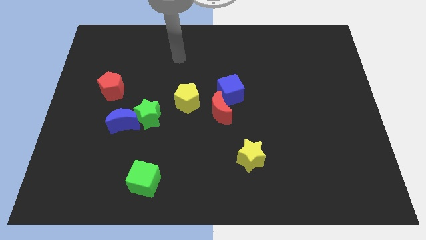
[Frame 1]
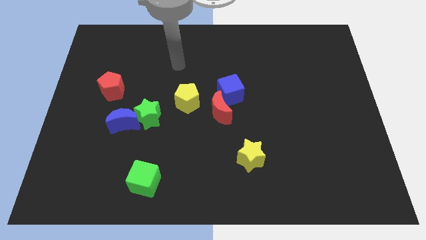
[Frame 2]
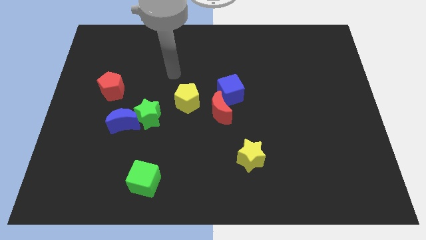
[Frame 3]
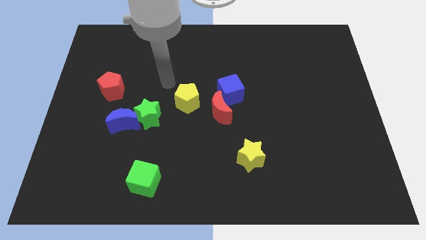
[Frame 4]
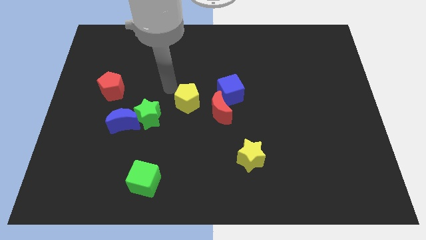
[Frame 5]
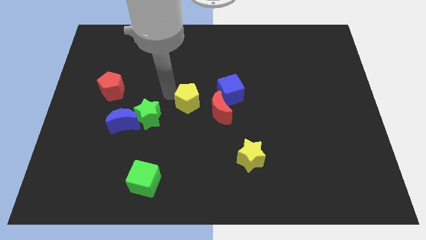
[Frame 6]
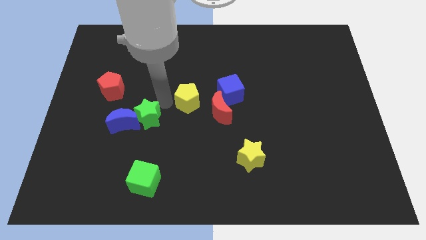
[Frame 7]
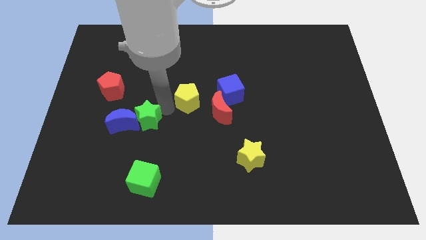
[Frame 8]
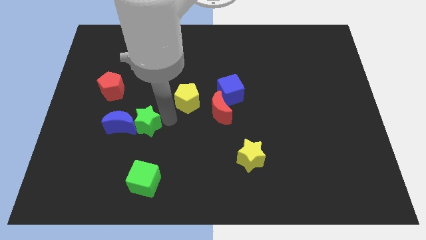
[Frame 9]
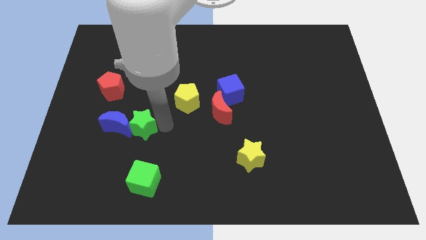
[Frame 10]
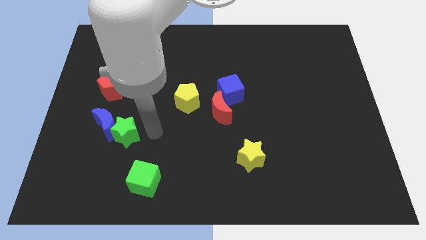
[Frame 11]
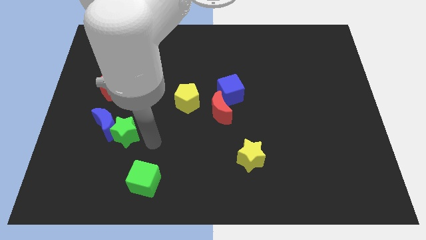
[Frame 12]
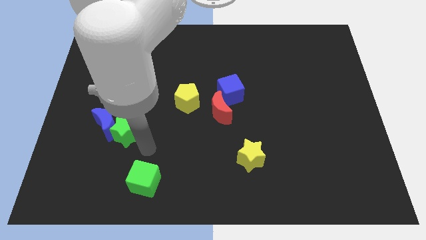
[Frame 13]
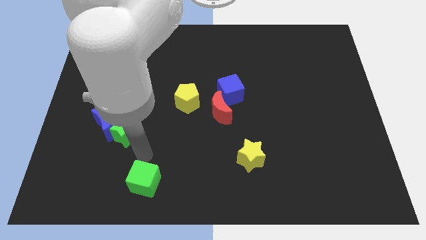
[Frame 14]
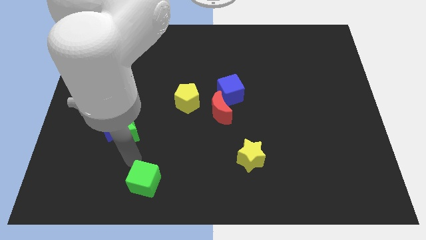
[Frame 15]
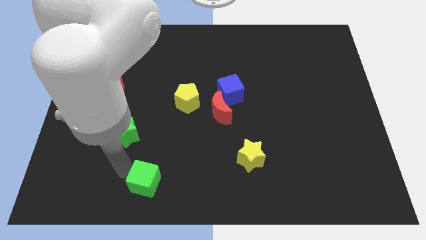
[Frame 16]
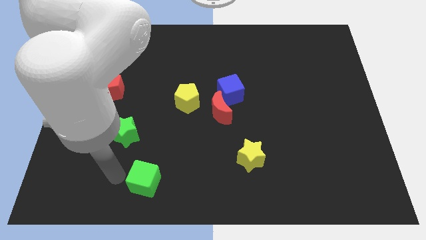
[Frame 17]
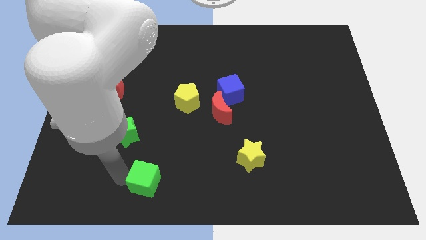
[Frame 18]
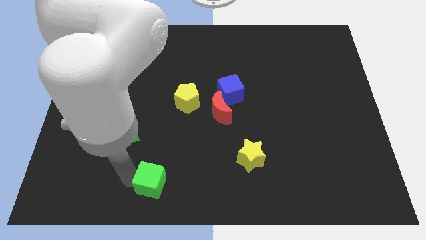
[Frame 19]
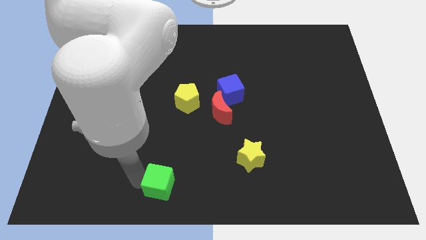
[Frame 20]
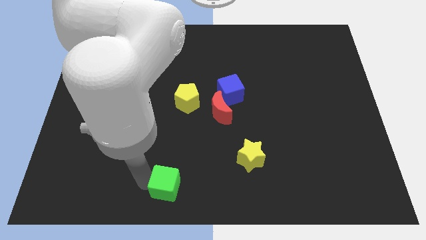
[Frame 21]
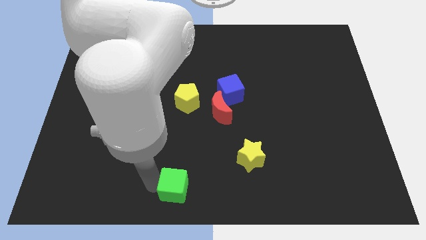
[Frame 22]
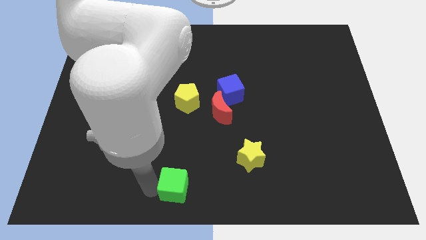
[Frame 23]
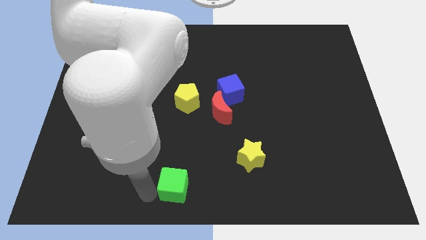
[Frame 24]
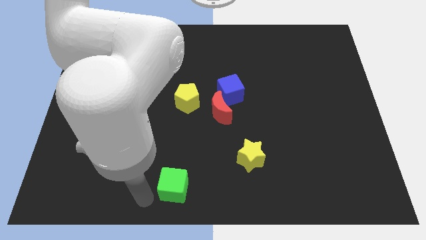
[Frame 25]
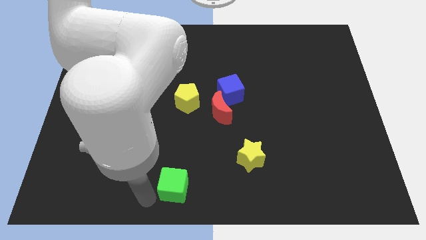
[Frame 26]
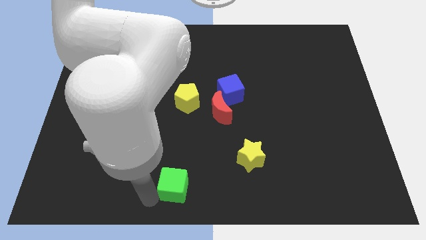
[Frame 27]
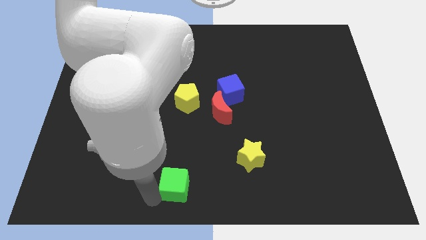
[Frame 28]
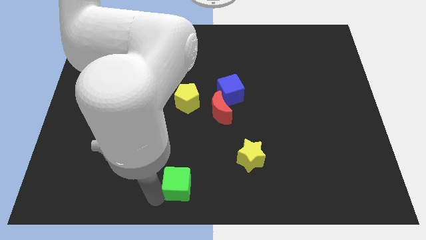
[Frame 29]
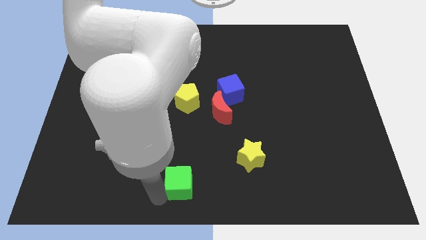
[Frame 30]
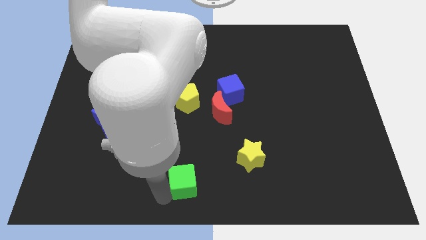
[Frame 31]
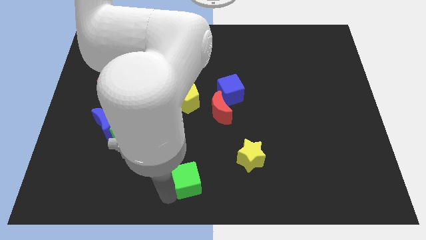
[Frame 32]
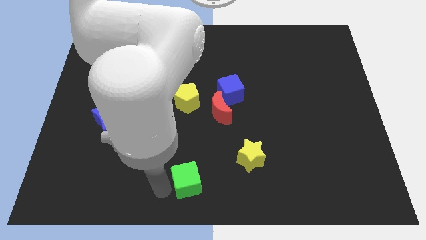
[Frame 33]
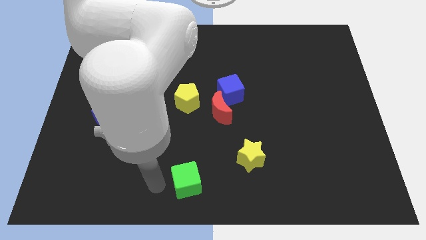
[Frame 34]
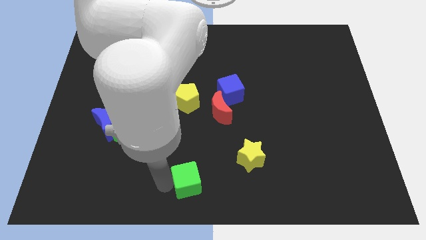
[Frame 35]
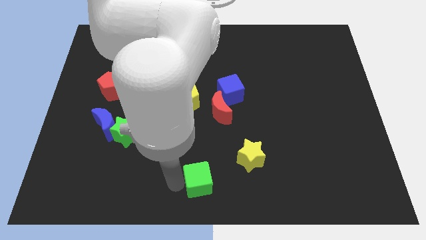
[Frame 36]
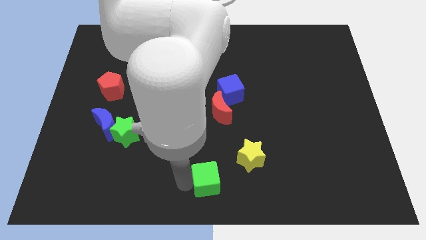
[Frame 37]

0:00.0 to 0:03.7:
move the green cube diagonally down and to the left of the yellow star

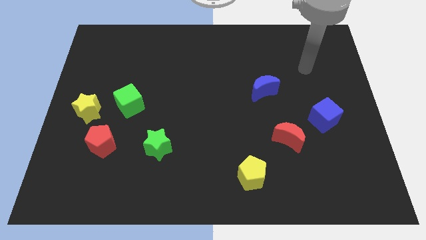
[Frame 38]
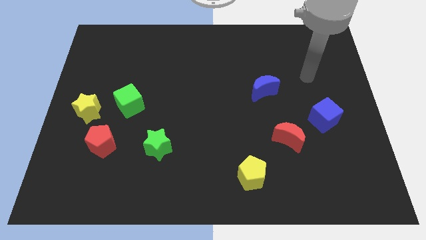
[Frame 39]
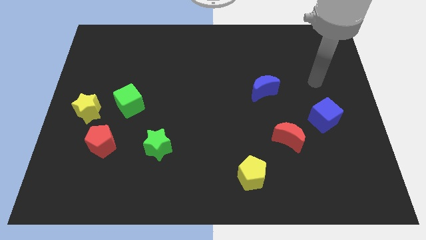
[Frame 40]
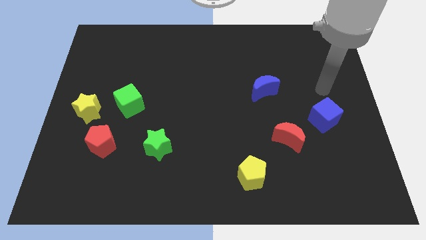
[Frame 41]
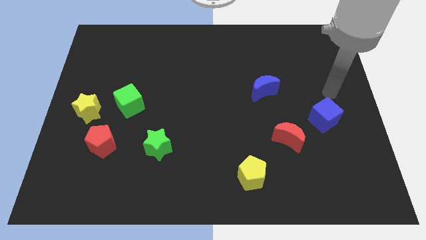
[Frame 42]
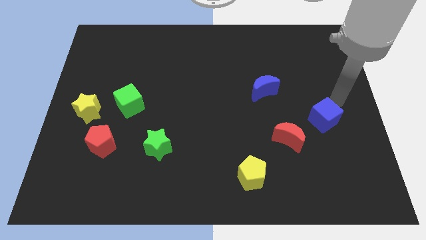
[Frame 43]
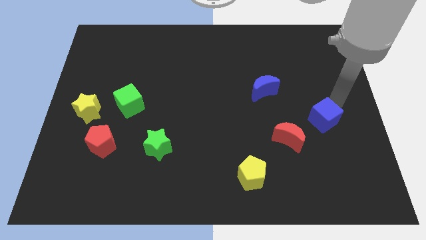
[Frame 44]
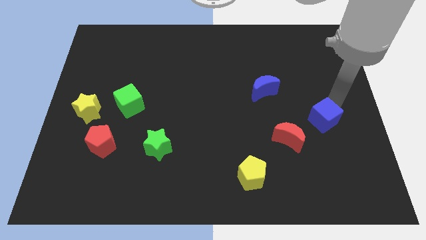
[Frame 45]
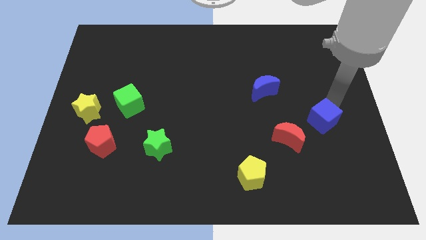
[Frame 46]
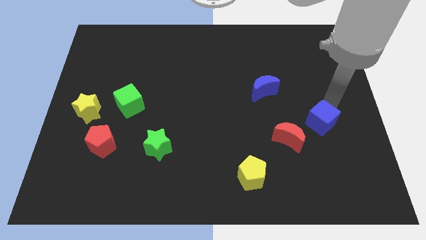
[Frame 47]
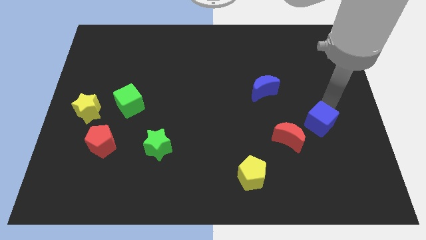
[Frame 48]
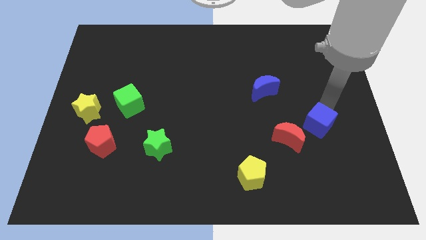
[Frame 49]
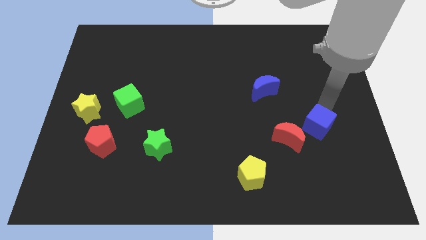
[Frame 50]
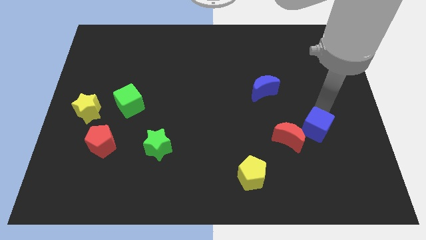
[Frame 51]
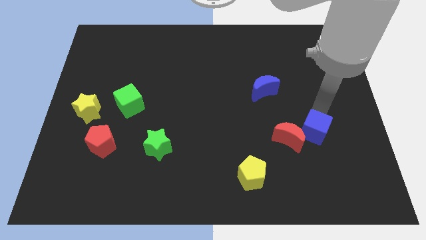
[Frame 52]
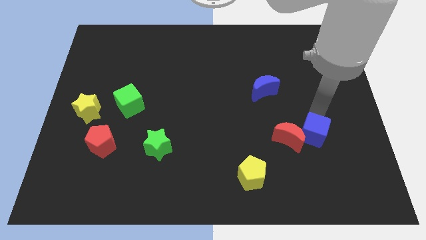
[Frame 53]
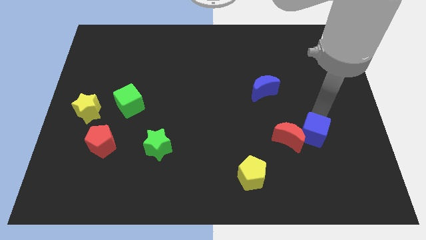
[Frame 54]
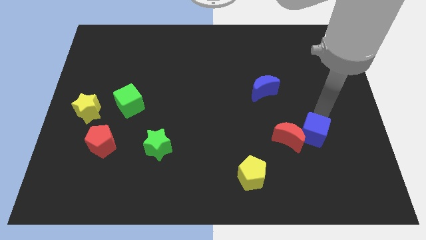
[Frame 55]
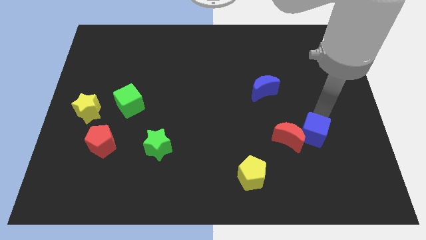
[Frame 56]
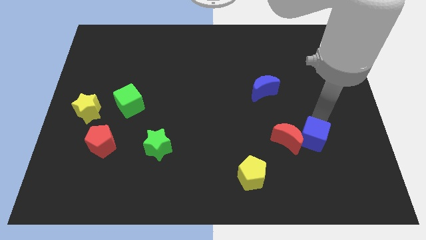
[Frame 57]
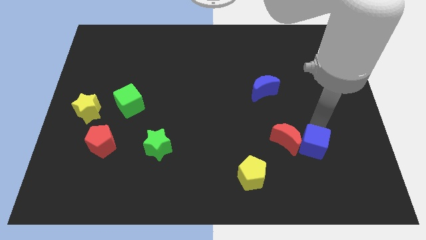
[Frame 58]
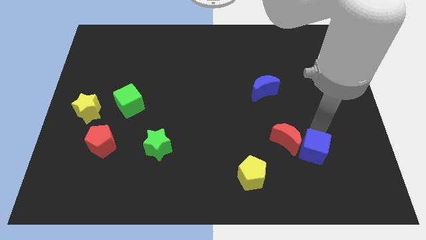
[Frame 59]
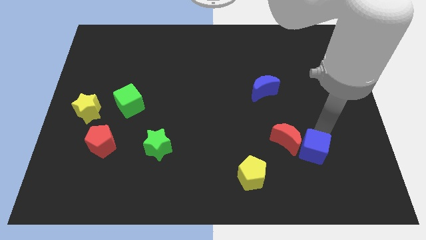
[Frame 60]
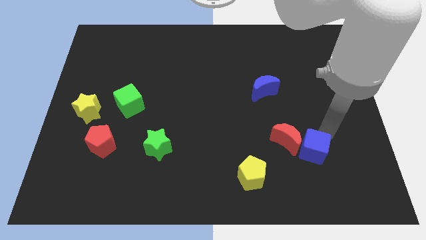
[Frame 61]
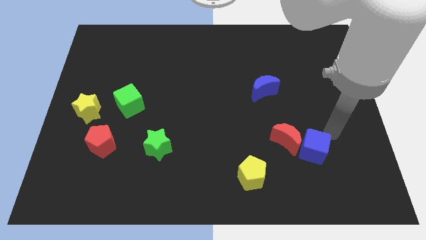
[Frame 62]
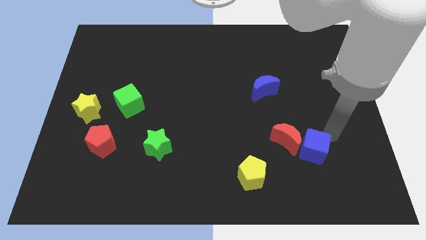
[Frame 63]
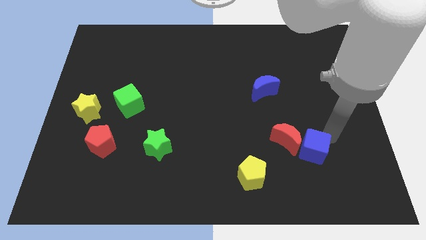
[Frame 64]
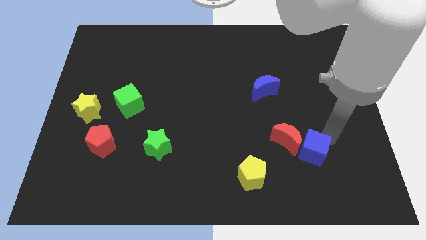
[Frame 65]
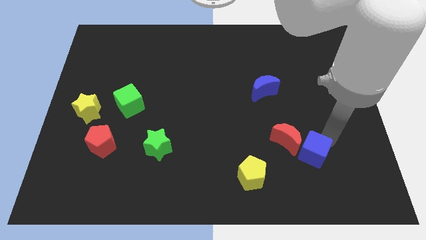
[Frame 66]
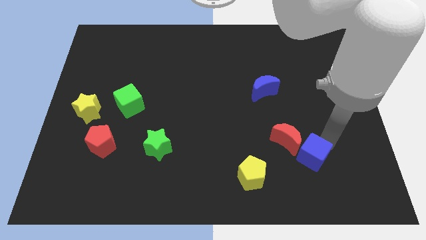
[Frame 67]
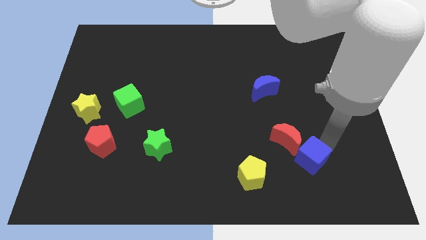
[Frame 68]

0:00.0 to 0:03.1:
slide the blue cube to the bottom side of the red moon

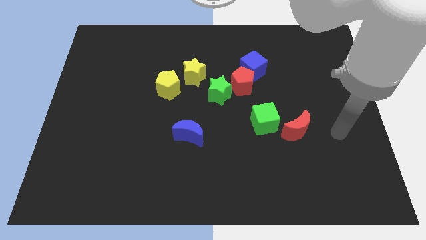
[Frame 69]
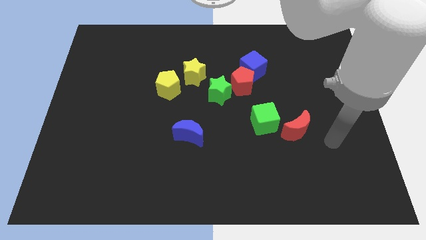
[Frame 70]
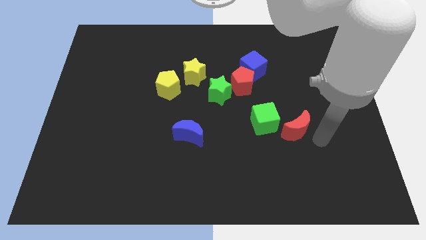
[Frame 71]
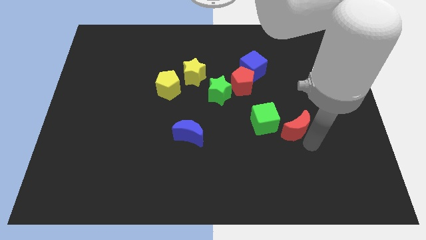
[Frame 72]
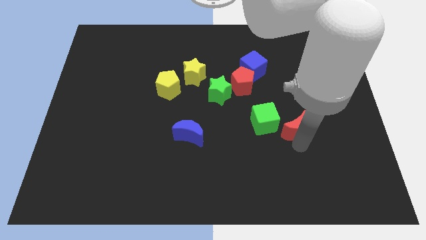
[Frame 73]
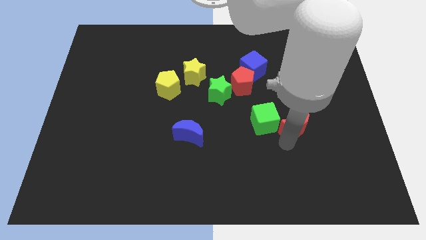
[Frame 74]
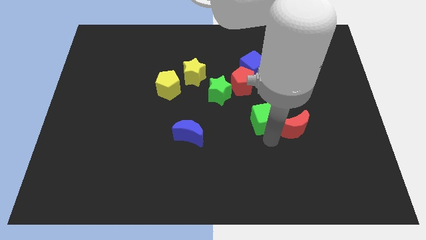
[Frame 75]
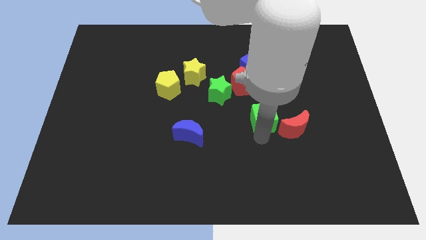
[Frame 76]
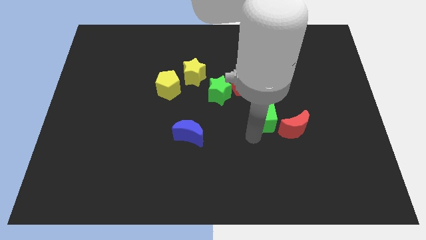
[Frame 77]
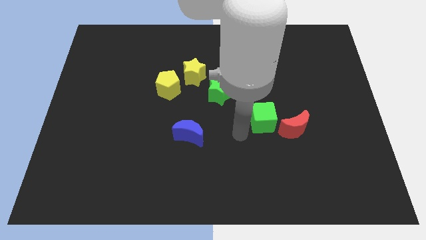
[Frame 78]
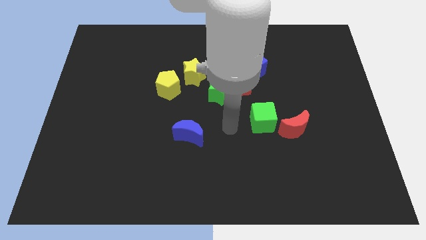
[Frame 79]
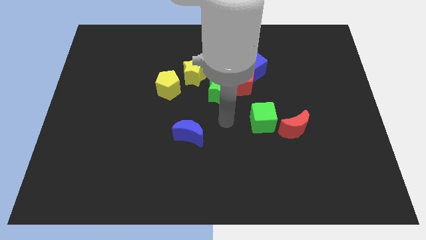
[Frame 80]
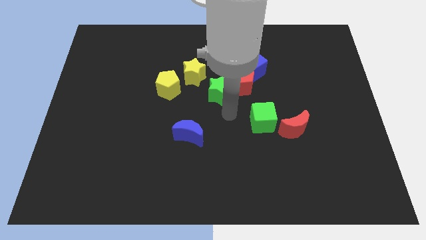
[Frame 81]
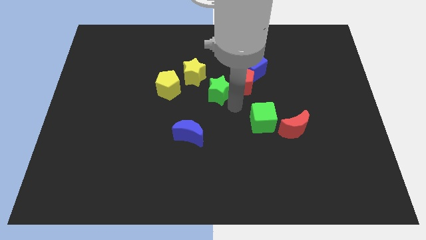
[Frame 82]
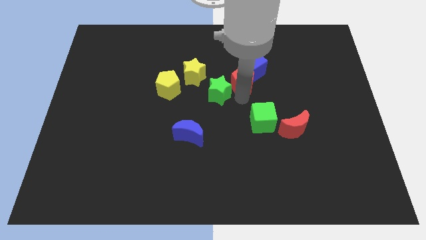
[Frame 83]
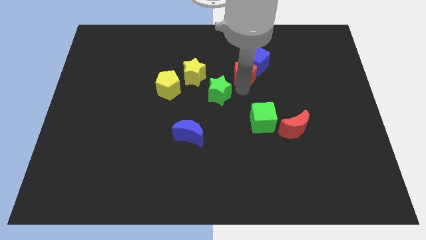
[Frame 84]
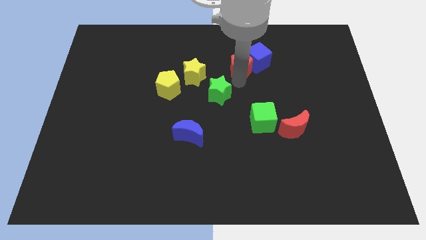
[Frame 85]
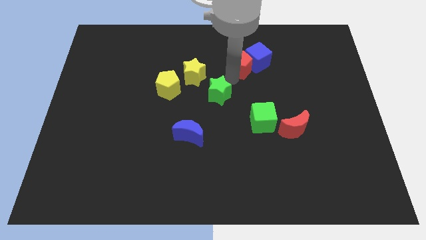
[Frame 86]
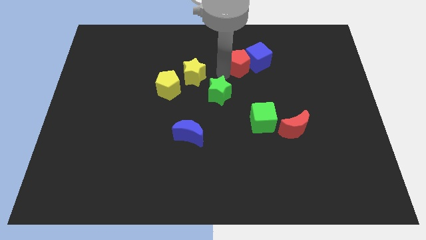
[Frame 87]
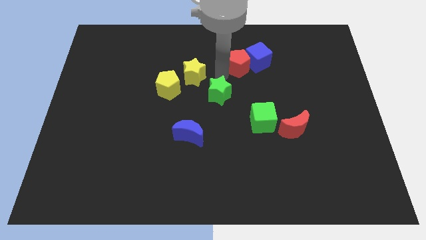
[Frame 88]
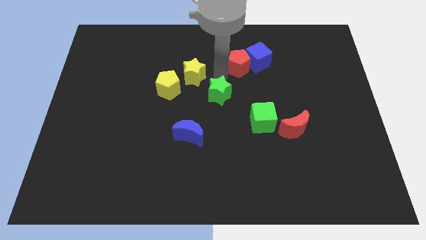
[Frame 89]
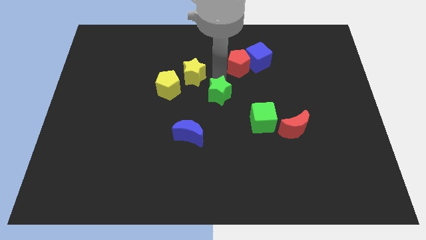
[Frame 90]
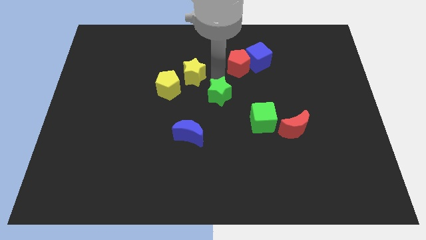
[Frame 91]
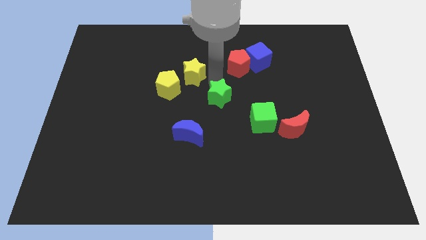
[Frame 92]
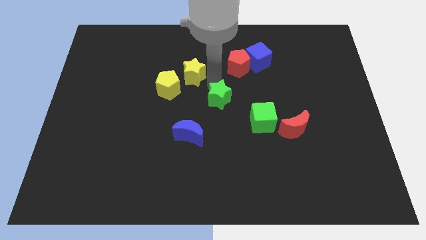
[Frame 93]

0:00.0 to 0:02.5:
push the green star to the top right of the blue moon
